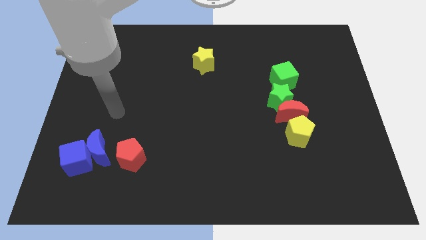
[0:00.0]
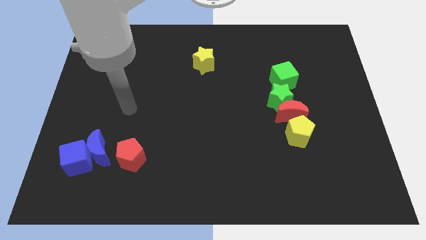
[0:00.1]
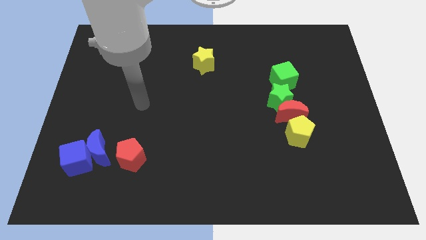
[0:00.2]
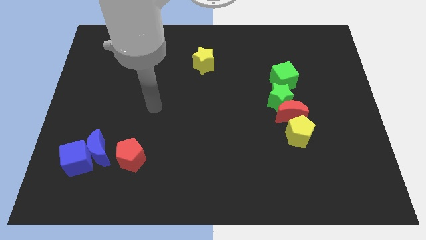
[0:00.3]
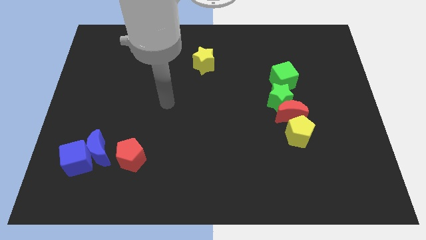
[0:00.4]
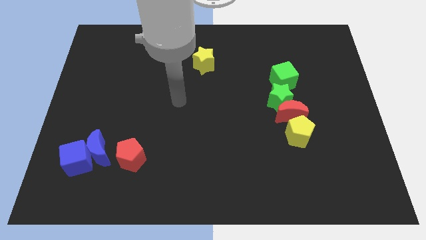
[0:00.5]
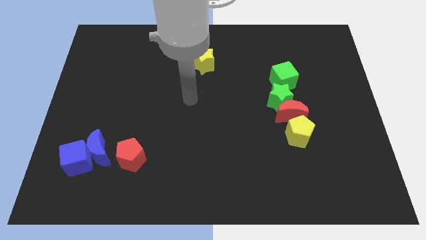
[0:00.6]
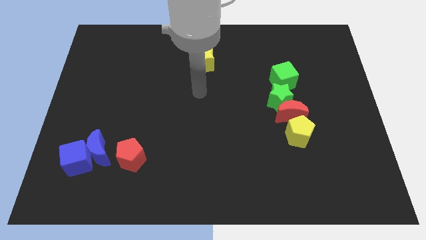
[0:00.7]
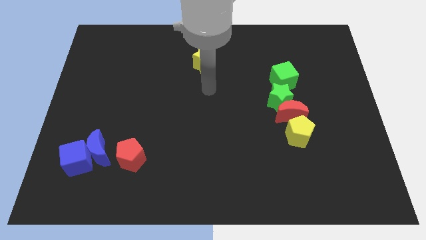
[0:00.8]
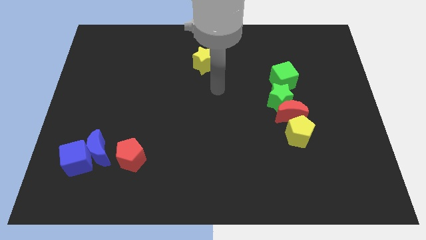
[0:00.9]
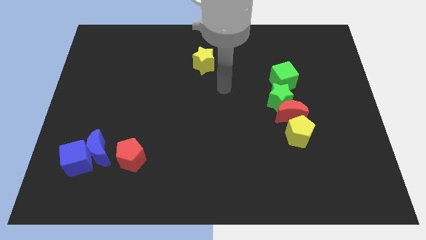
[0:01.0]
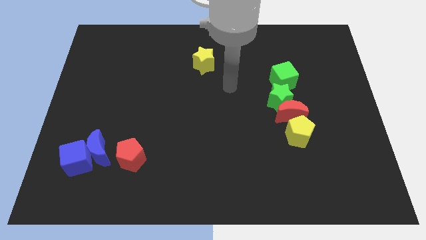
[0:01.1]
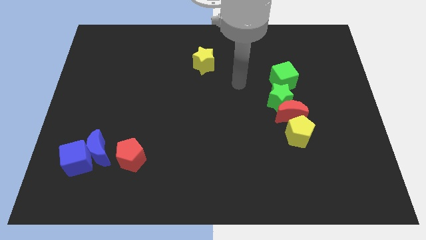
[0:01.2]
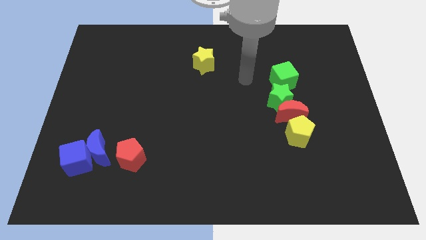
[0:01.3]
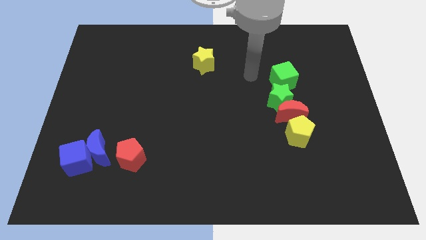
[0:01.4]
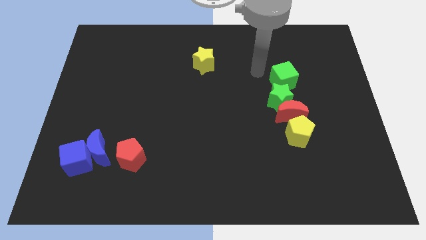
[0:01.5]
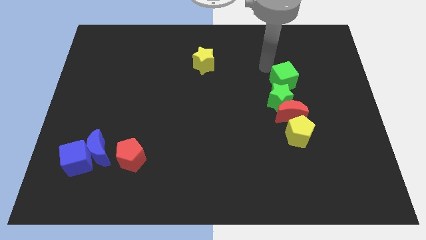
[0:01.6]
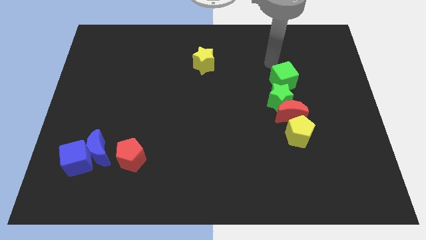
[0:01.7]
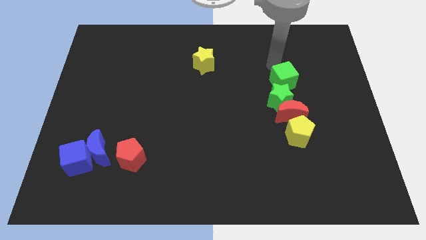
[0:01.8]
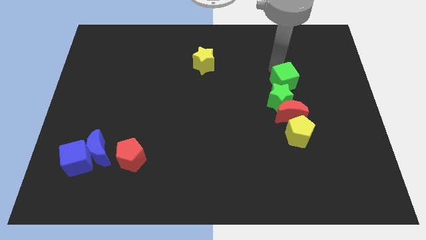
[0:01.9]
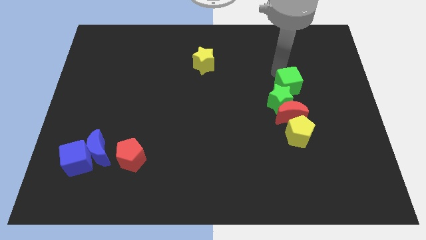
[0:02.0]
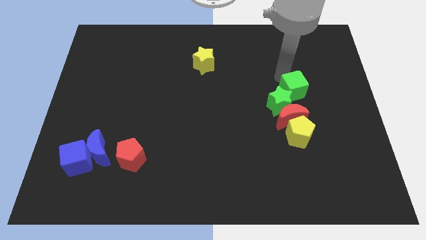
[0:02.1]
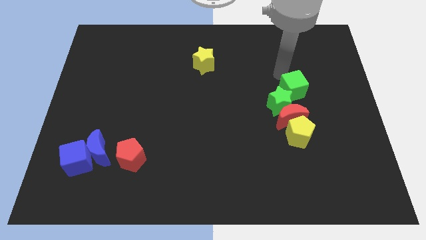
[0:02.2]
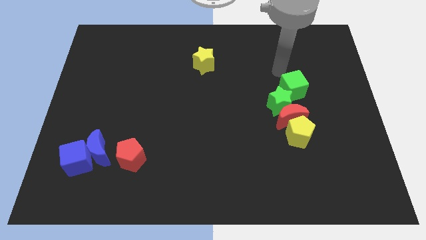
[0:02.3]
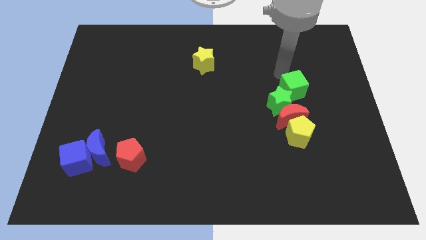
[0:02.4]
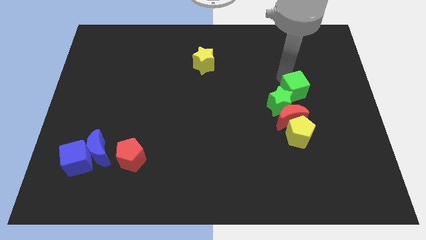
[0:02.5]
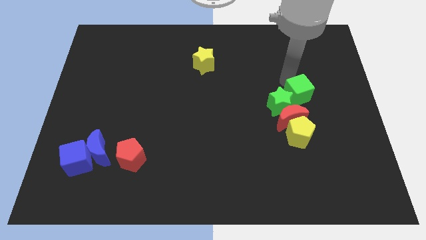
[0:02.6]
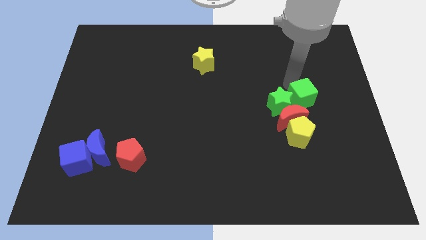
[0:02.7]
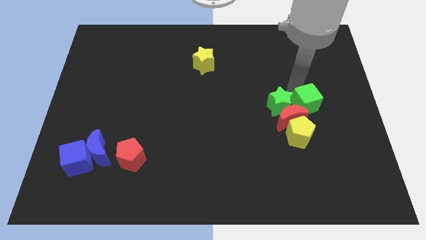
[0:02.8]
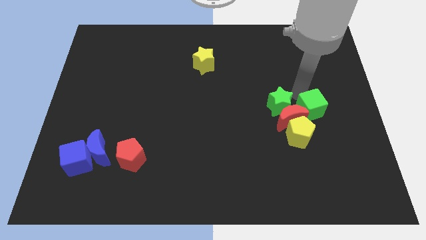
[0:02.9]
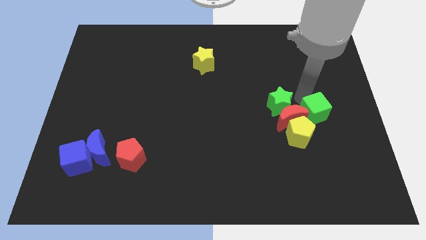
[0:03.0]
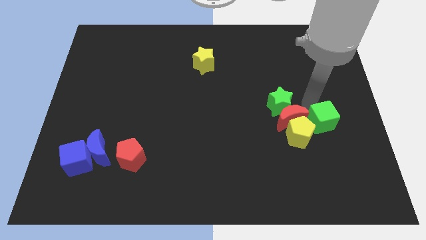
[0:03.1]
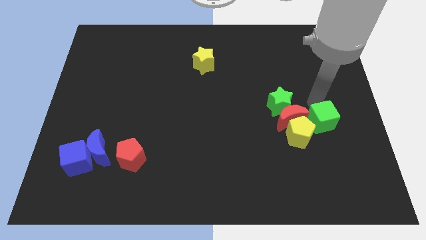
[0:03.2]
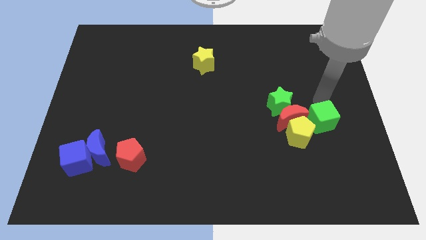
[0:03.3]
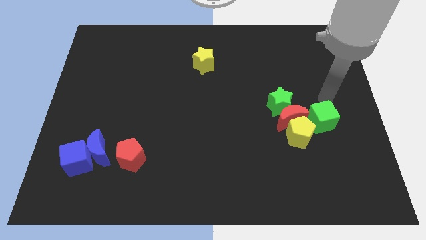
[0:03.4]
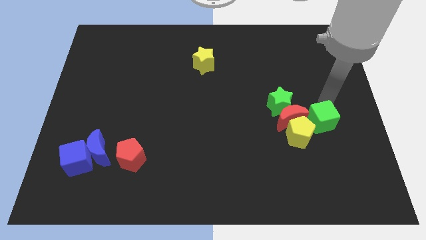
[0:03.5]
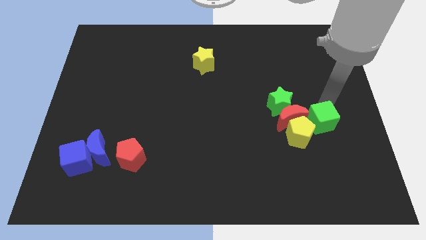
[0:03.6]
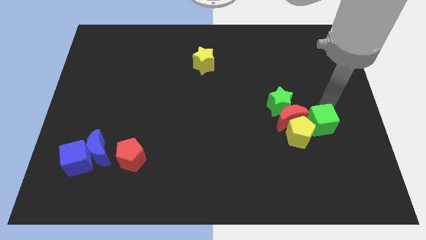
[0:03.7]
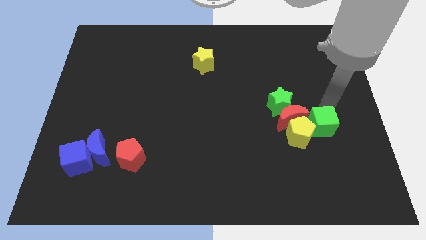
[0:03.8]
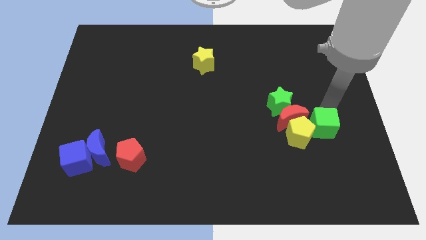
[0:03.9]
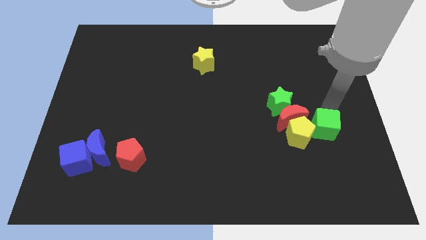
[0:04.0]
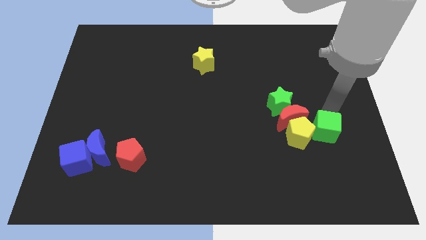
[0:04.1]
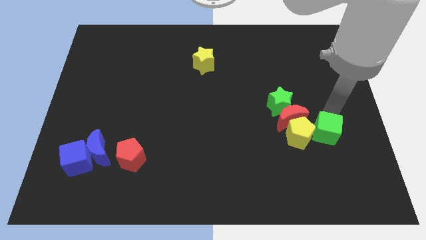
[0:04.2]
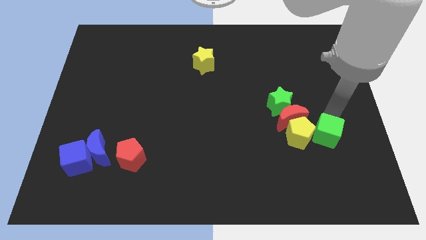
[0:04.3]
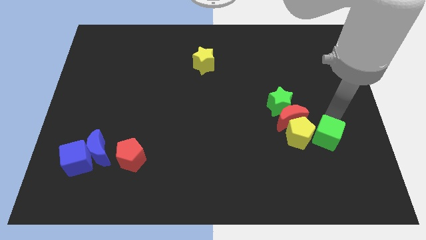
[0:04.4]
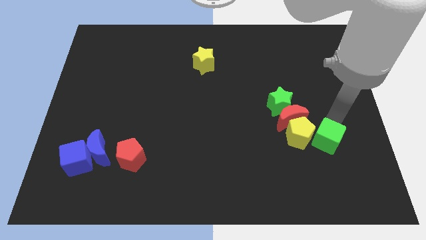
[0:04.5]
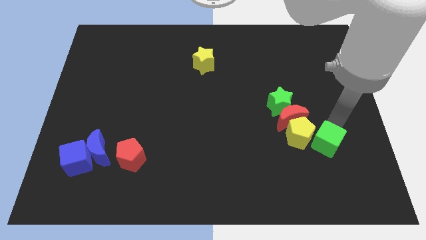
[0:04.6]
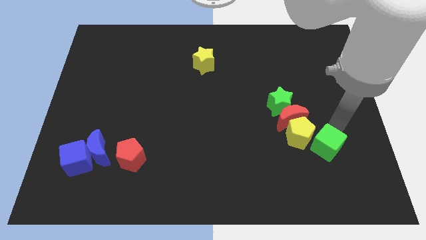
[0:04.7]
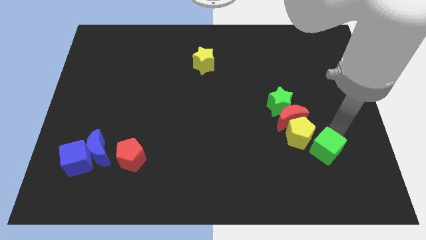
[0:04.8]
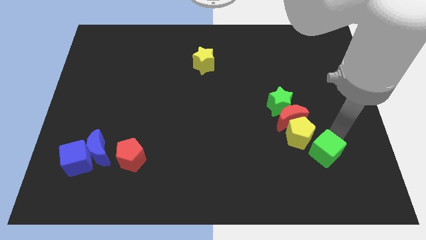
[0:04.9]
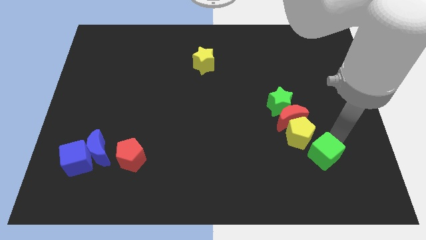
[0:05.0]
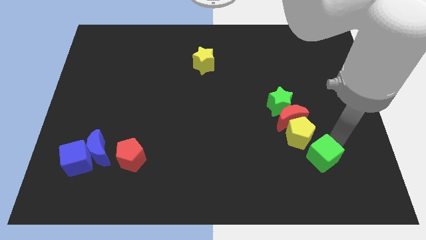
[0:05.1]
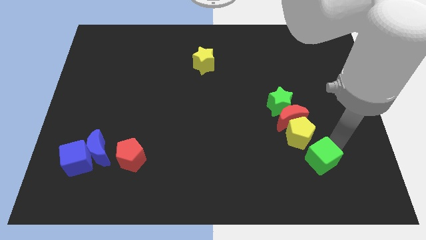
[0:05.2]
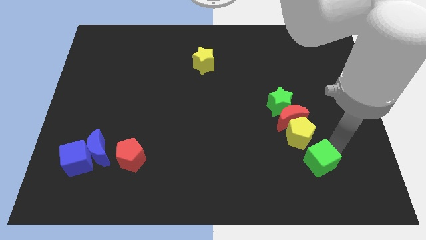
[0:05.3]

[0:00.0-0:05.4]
put the green cube to the bottom side of the red moon

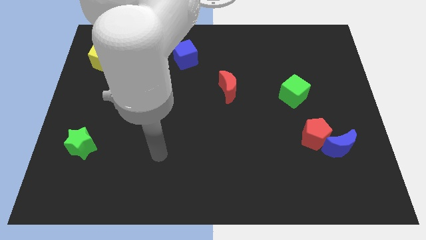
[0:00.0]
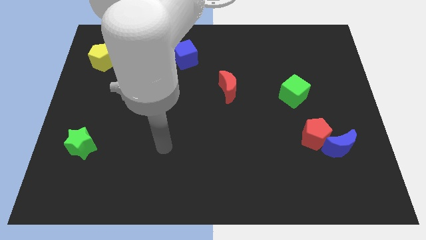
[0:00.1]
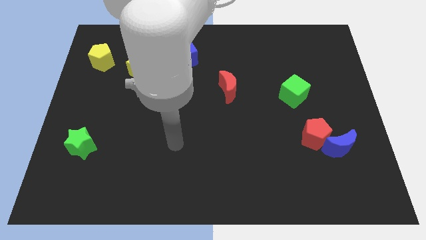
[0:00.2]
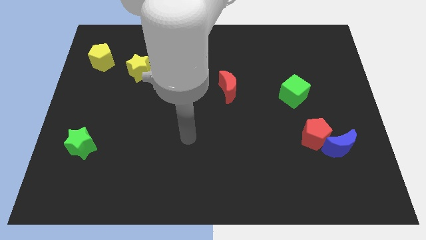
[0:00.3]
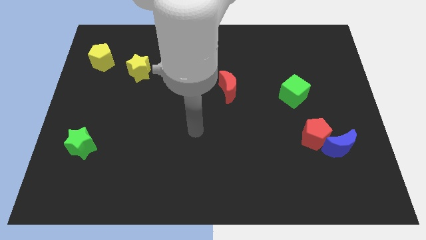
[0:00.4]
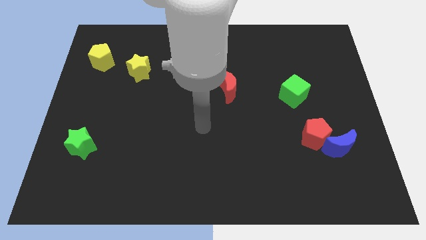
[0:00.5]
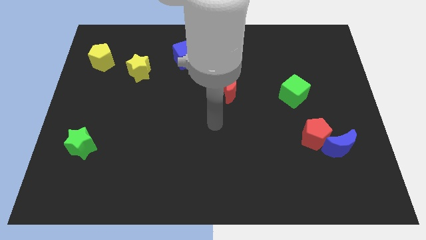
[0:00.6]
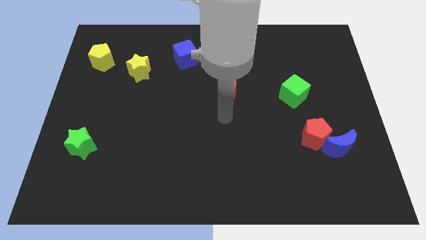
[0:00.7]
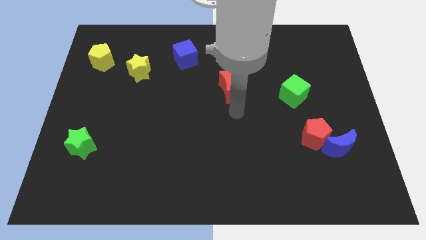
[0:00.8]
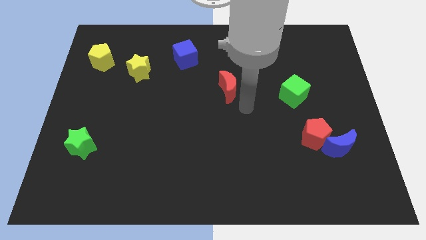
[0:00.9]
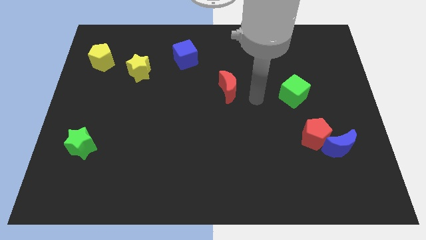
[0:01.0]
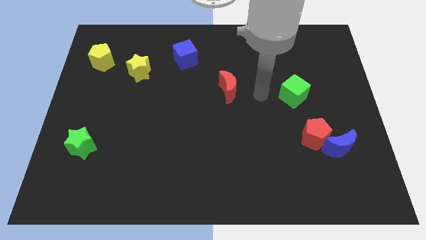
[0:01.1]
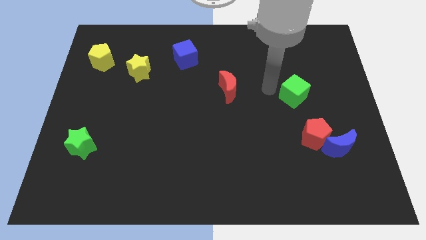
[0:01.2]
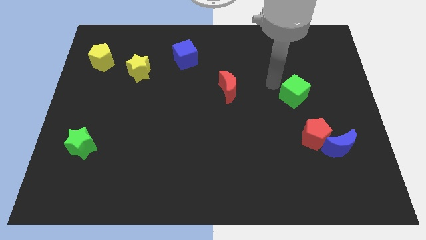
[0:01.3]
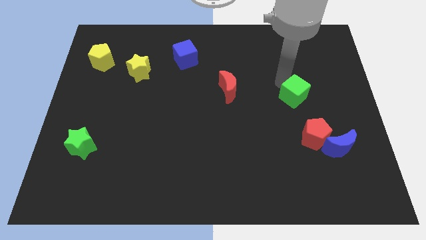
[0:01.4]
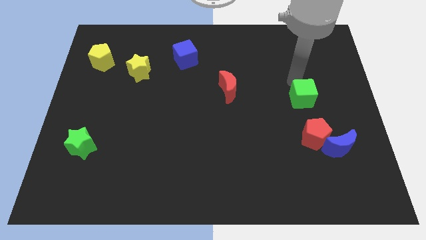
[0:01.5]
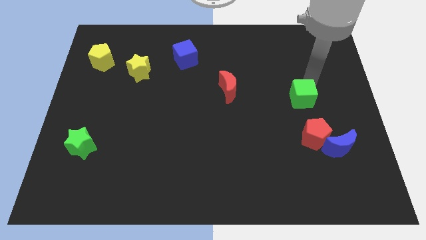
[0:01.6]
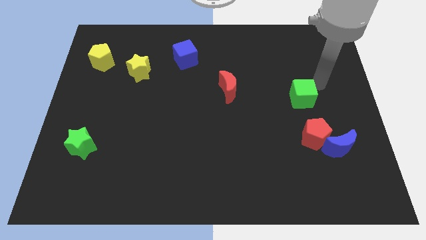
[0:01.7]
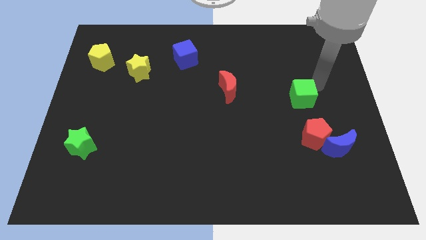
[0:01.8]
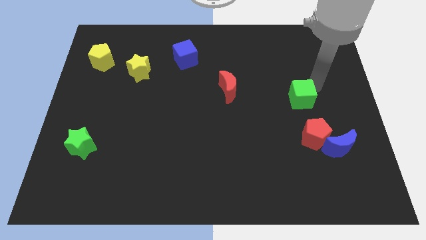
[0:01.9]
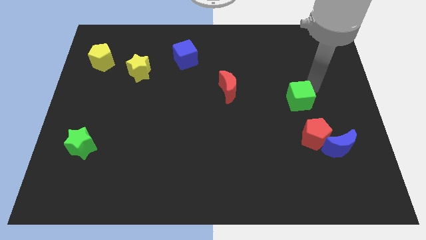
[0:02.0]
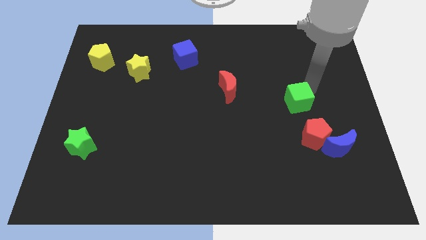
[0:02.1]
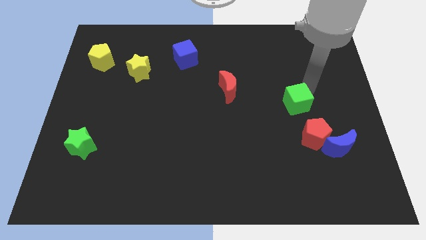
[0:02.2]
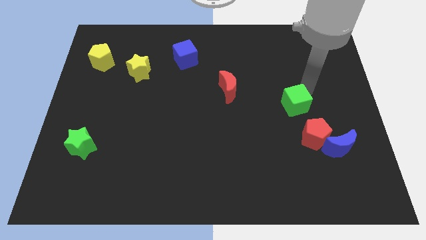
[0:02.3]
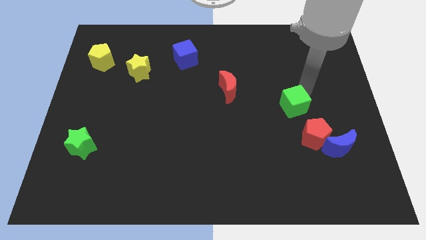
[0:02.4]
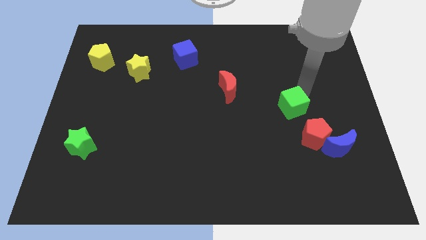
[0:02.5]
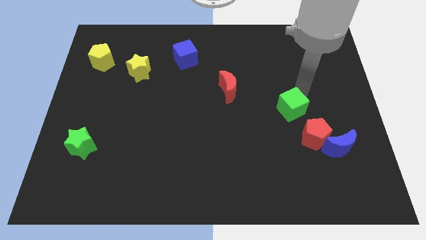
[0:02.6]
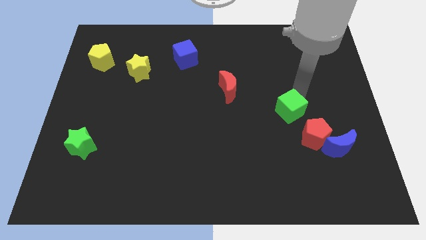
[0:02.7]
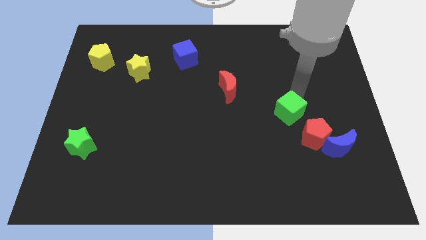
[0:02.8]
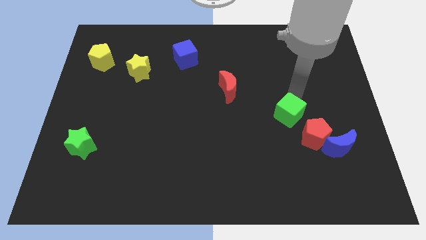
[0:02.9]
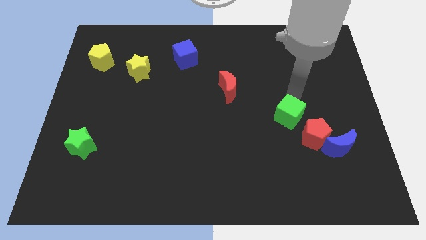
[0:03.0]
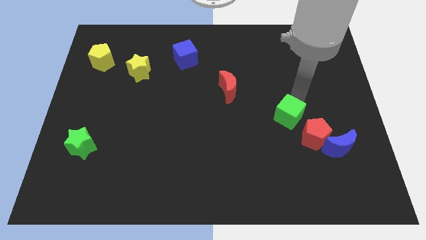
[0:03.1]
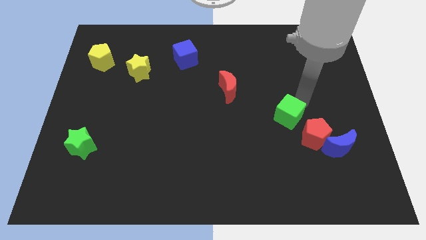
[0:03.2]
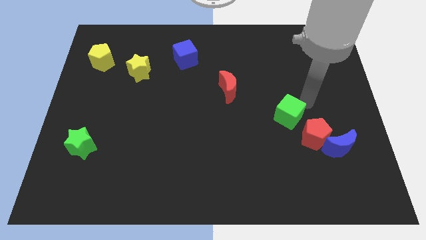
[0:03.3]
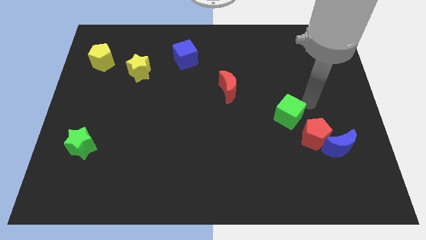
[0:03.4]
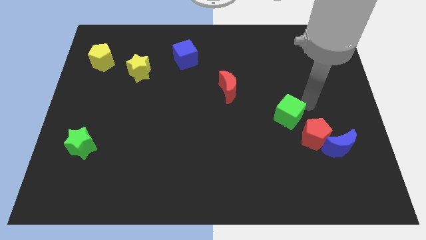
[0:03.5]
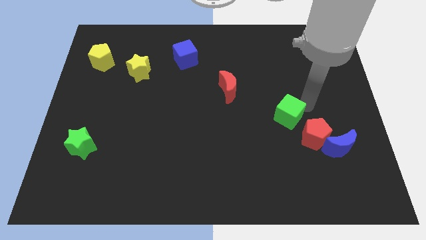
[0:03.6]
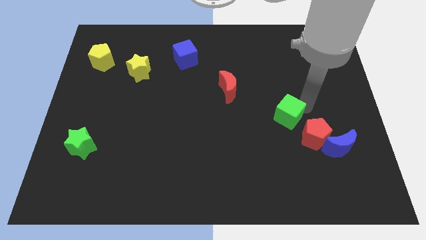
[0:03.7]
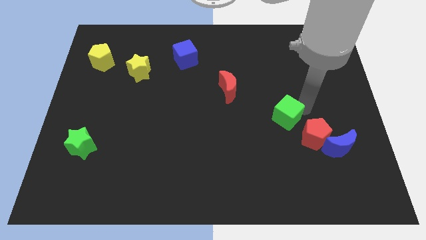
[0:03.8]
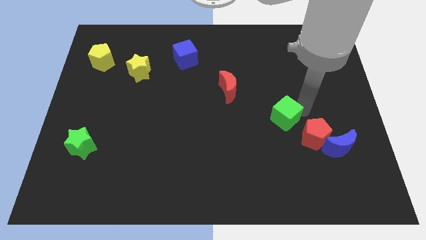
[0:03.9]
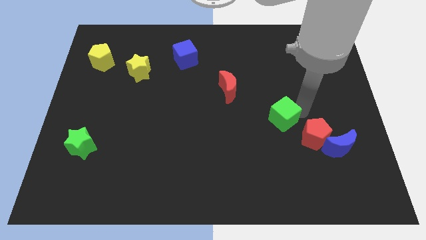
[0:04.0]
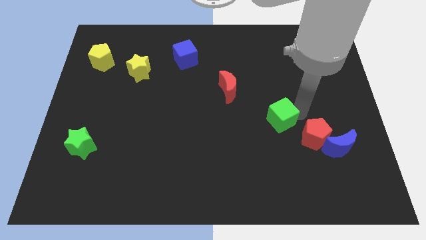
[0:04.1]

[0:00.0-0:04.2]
slide the green cube to the left side of the red pentagon
